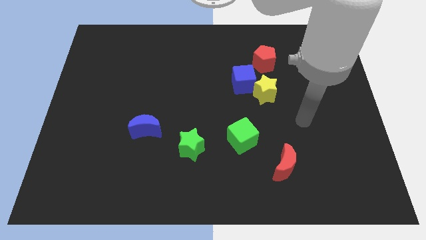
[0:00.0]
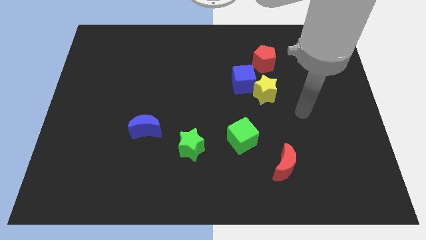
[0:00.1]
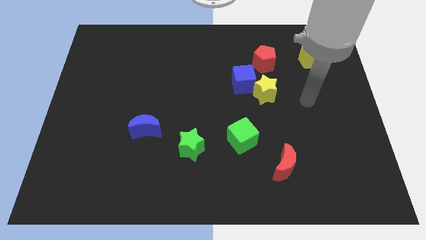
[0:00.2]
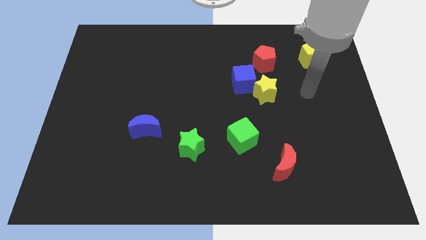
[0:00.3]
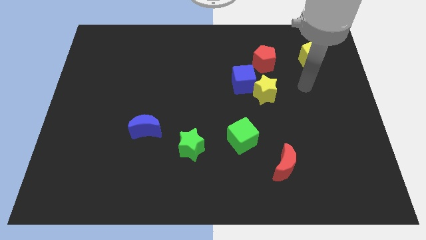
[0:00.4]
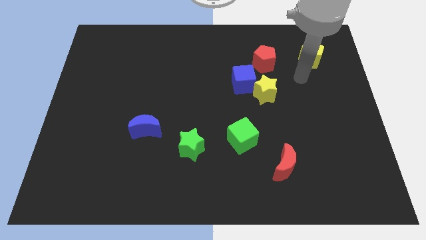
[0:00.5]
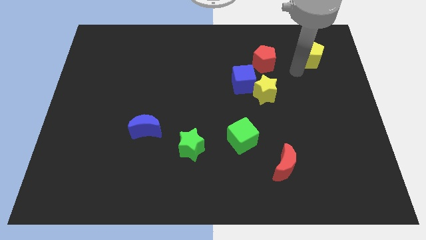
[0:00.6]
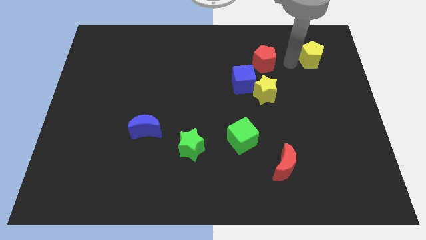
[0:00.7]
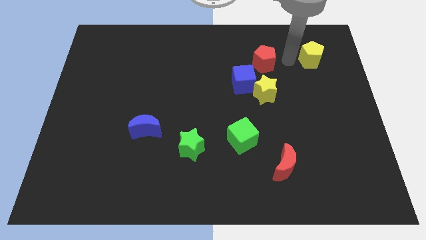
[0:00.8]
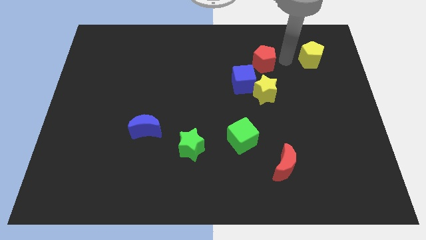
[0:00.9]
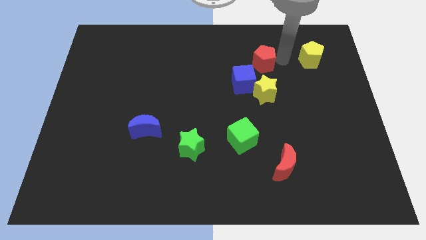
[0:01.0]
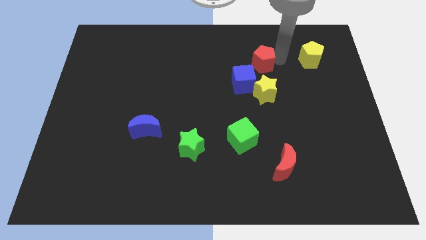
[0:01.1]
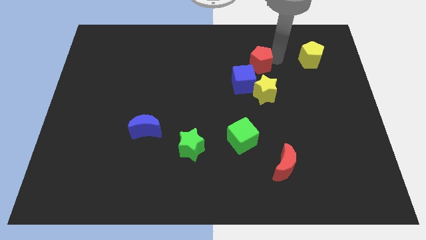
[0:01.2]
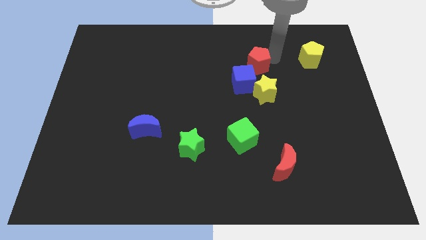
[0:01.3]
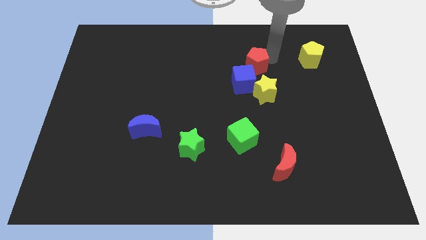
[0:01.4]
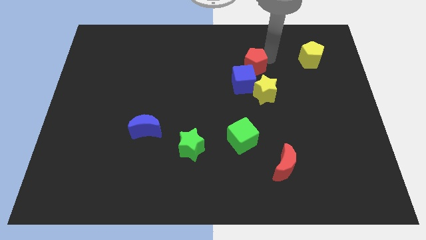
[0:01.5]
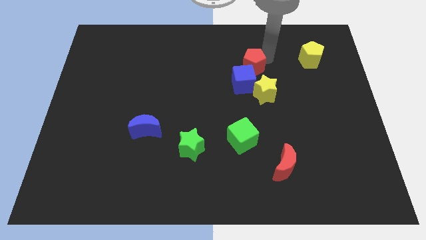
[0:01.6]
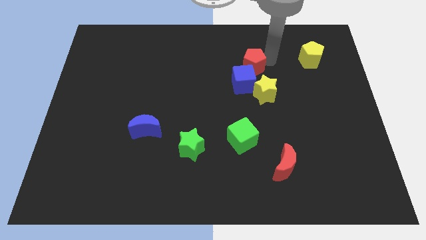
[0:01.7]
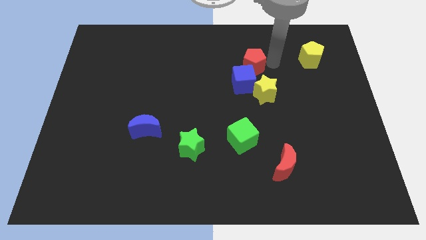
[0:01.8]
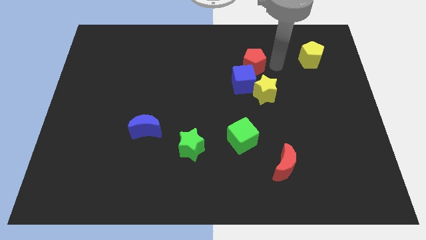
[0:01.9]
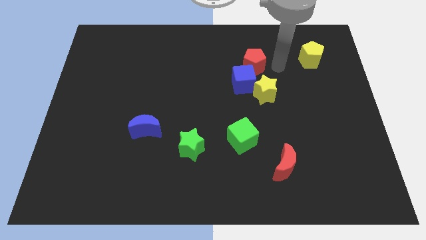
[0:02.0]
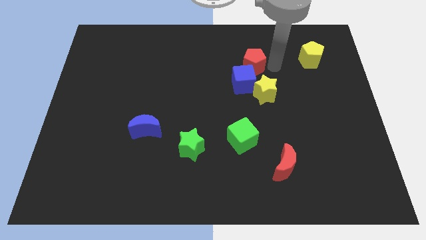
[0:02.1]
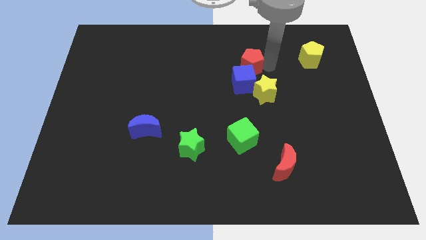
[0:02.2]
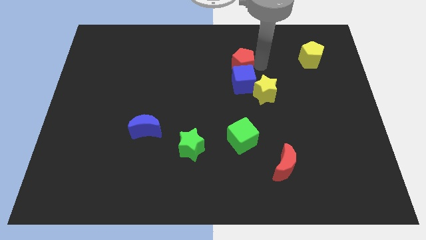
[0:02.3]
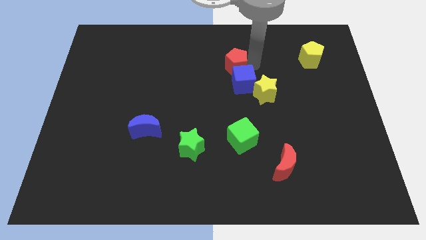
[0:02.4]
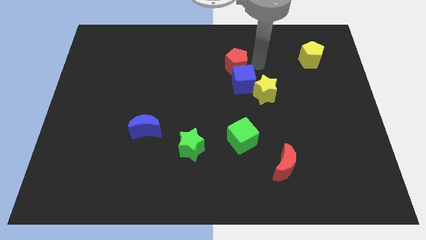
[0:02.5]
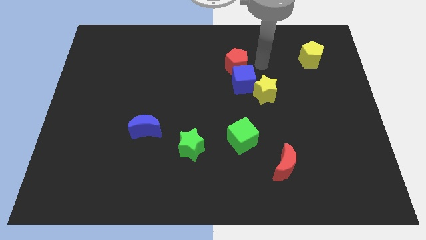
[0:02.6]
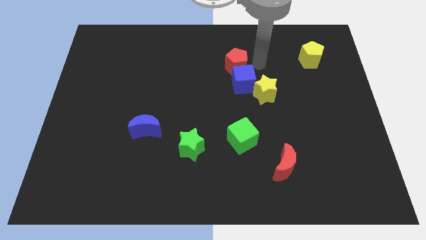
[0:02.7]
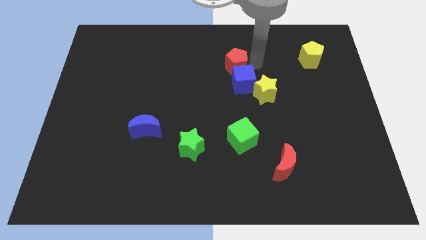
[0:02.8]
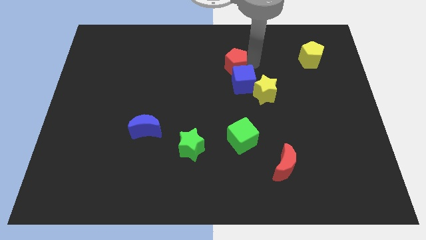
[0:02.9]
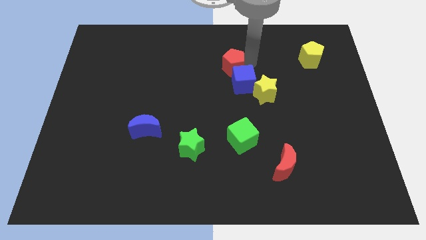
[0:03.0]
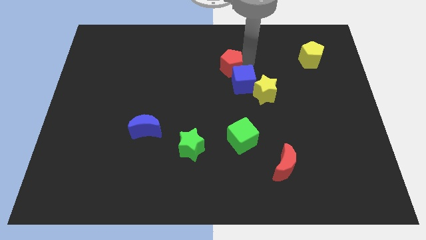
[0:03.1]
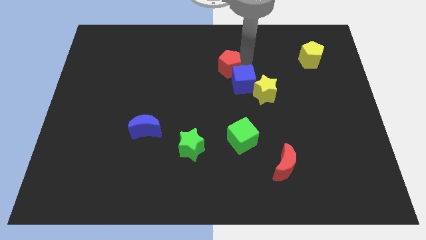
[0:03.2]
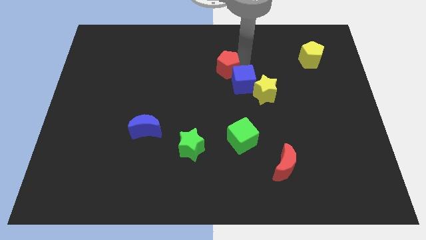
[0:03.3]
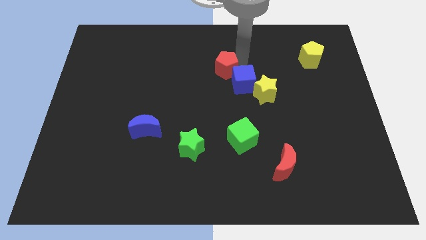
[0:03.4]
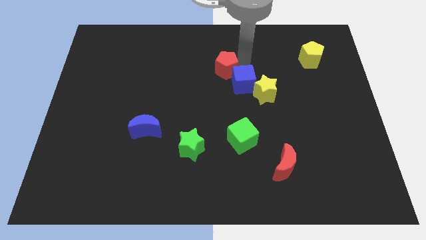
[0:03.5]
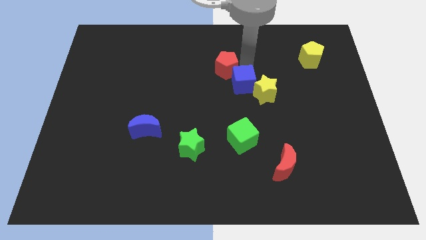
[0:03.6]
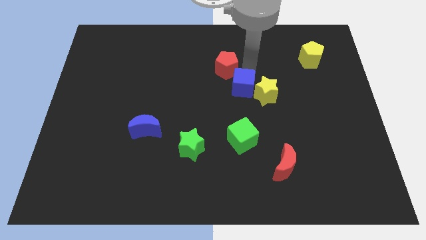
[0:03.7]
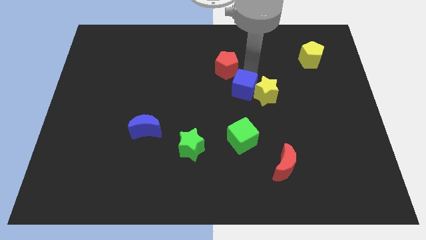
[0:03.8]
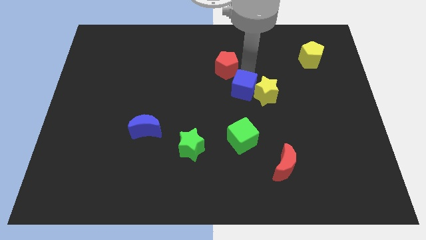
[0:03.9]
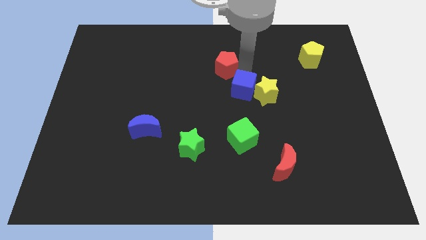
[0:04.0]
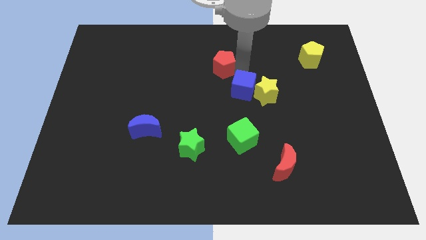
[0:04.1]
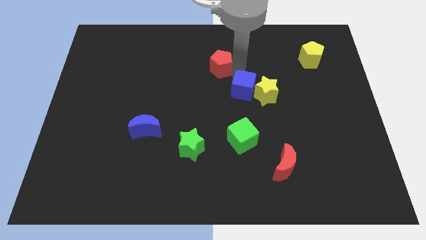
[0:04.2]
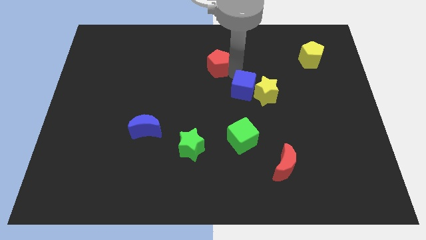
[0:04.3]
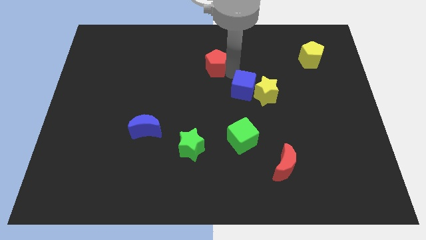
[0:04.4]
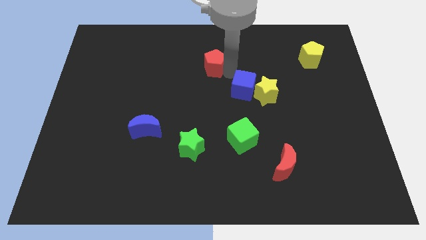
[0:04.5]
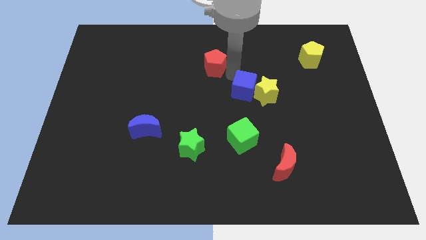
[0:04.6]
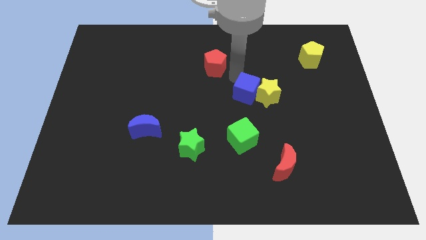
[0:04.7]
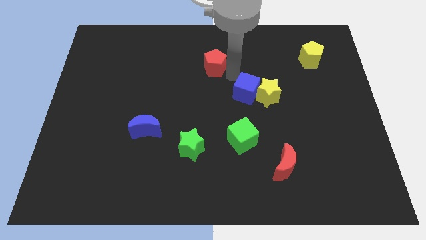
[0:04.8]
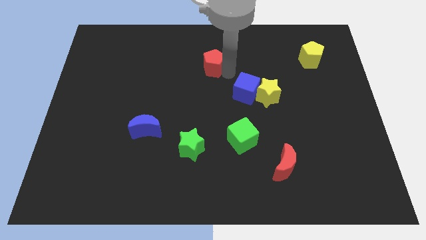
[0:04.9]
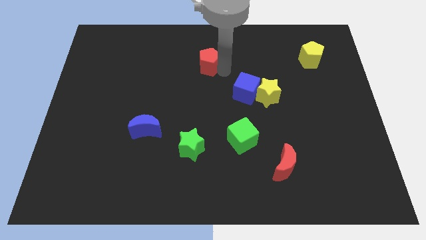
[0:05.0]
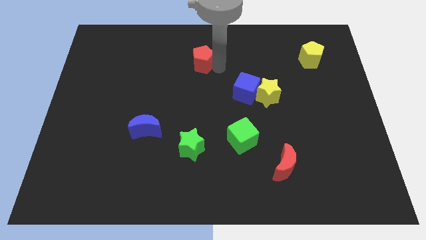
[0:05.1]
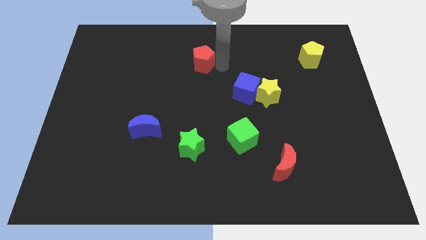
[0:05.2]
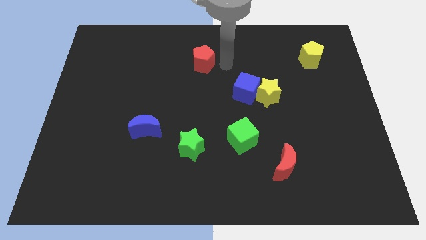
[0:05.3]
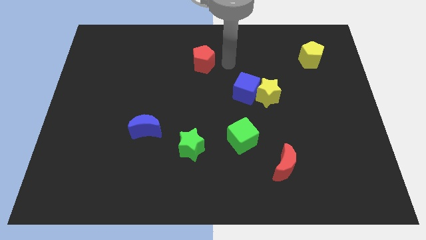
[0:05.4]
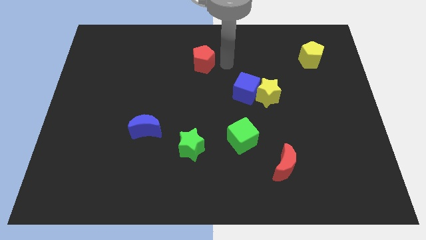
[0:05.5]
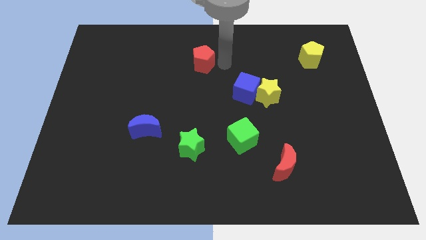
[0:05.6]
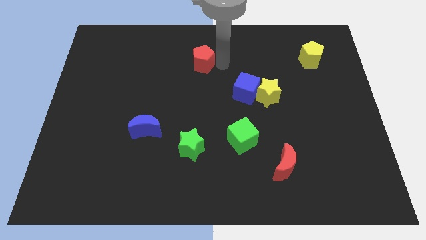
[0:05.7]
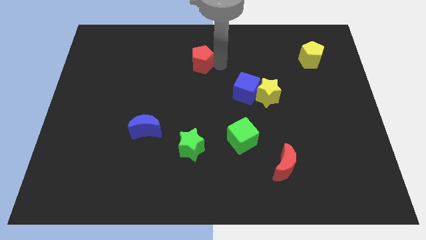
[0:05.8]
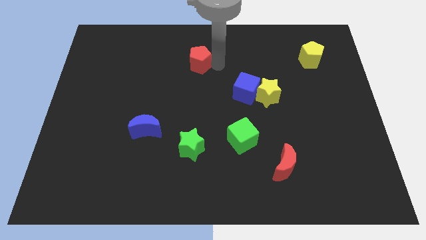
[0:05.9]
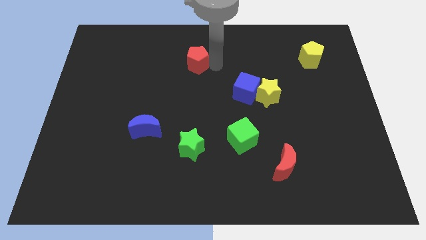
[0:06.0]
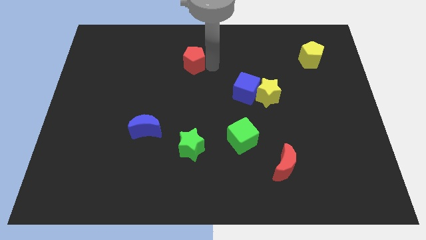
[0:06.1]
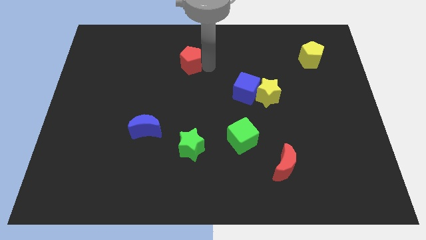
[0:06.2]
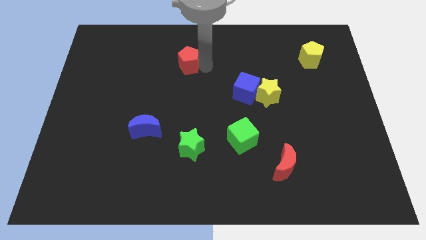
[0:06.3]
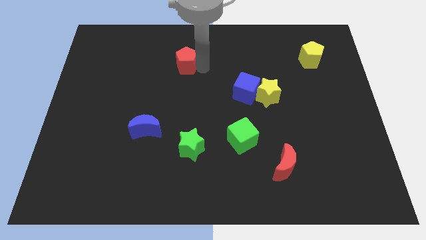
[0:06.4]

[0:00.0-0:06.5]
push the red pentagon to the left

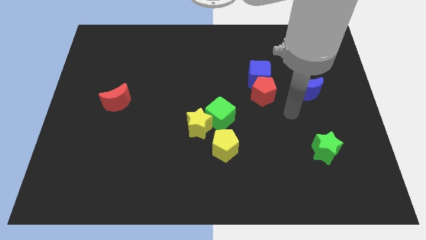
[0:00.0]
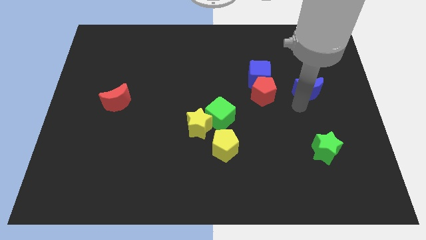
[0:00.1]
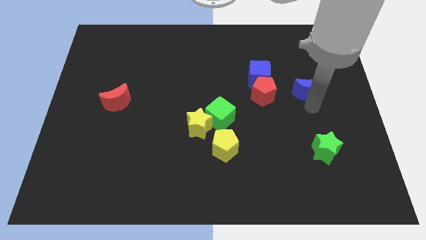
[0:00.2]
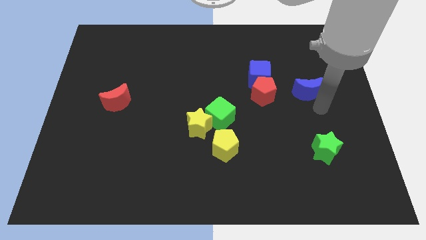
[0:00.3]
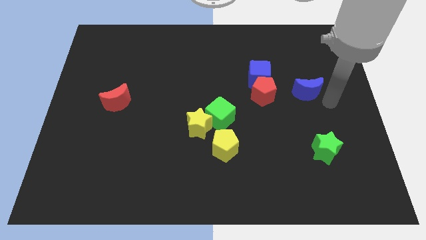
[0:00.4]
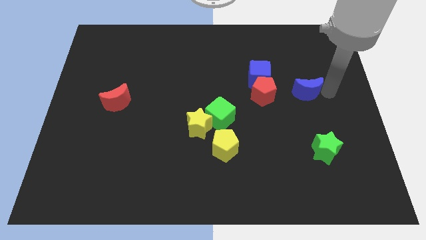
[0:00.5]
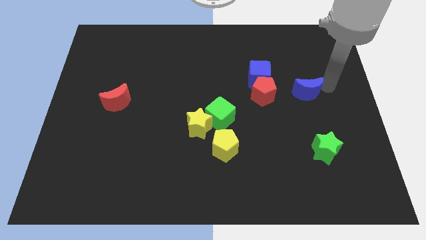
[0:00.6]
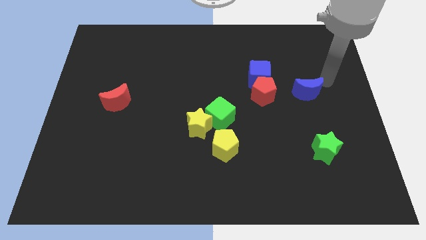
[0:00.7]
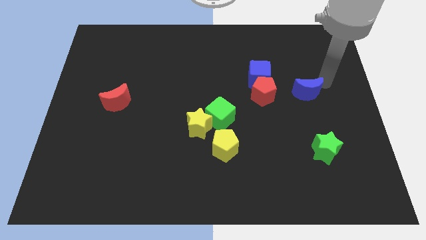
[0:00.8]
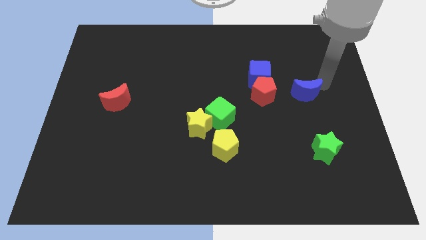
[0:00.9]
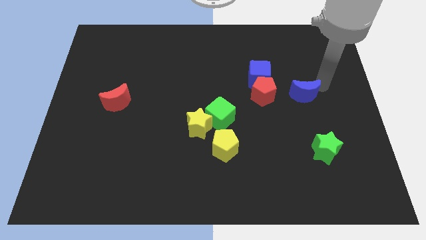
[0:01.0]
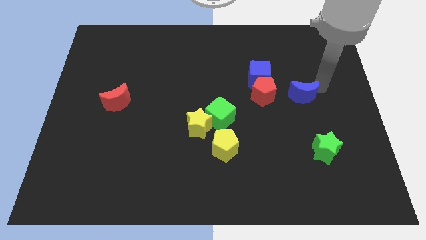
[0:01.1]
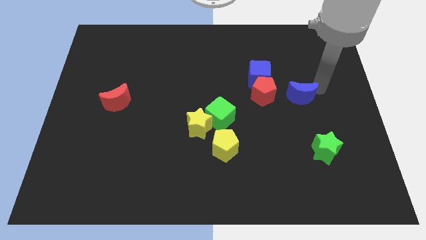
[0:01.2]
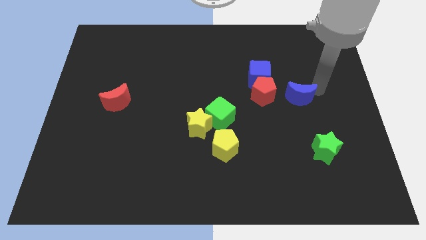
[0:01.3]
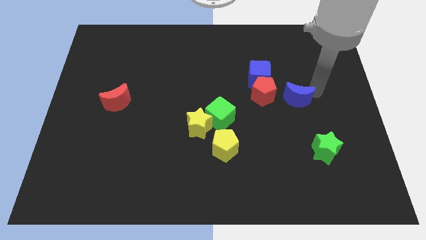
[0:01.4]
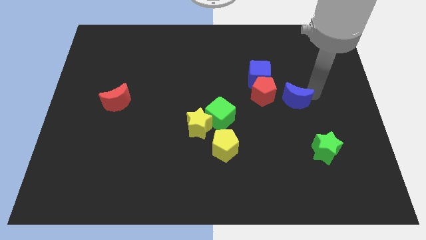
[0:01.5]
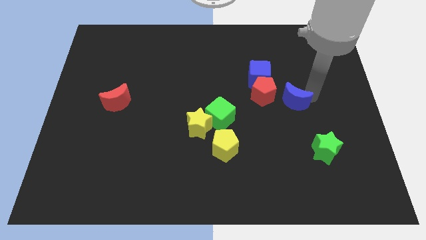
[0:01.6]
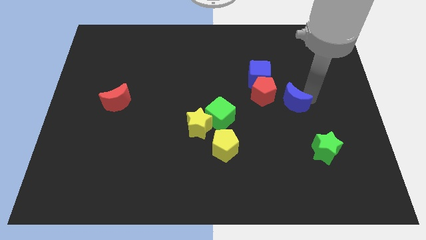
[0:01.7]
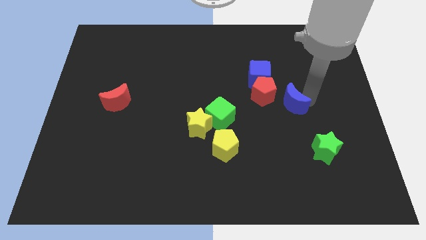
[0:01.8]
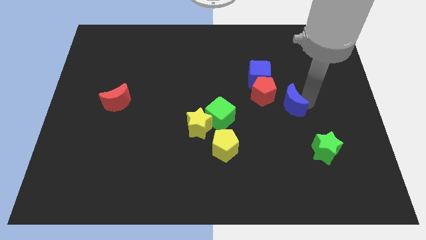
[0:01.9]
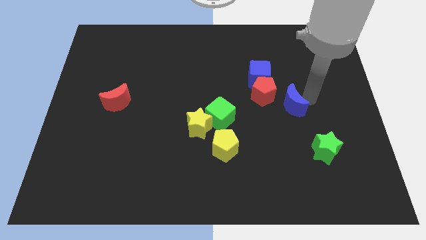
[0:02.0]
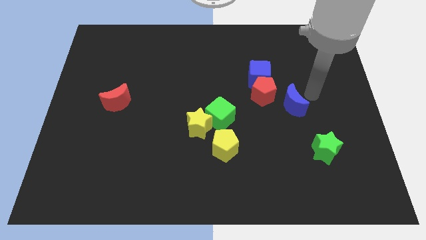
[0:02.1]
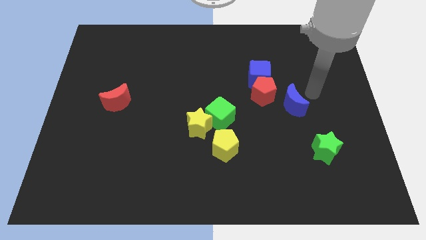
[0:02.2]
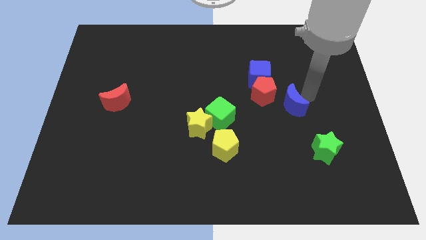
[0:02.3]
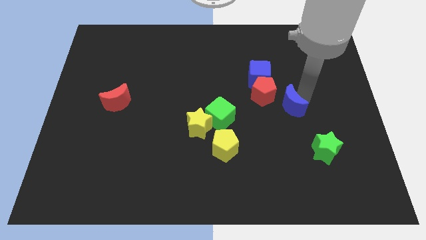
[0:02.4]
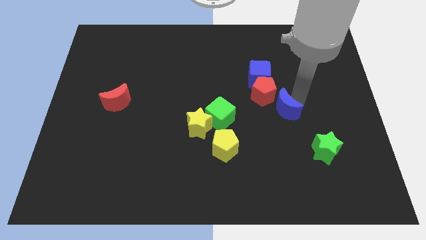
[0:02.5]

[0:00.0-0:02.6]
slightly move the blue moon downwards and then to the left
